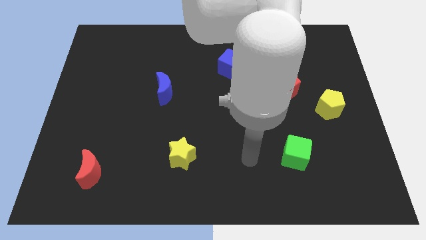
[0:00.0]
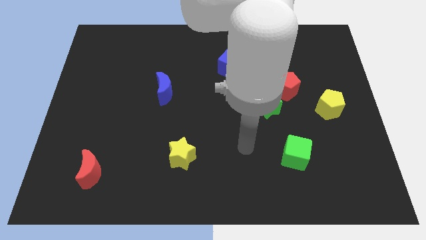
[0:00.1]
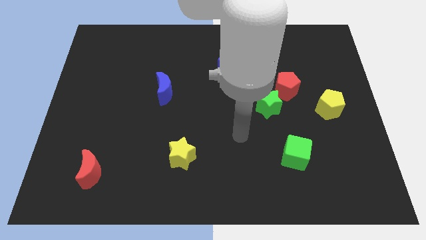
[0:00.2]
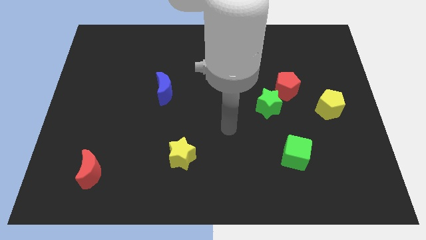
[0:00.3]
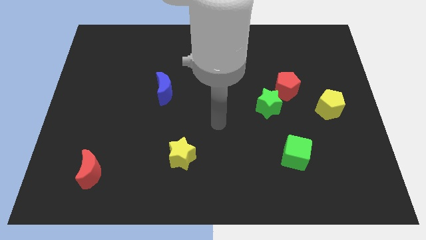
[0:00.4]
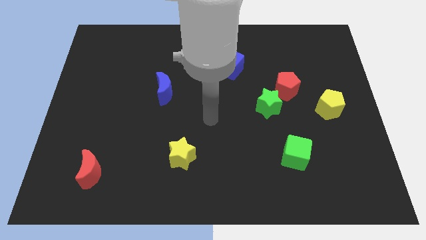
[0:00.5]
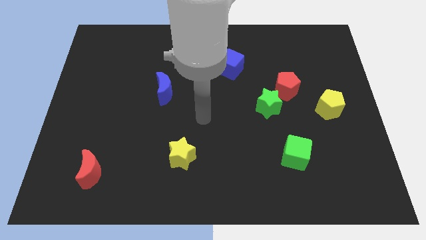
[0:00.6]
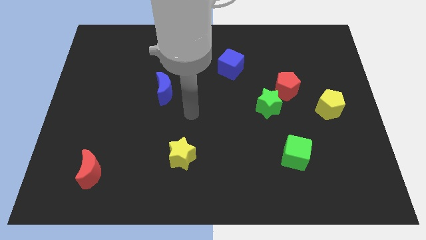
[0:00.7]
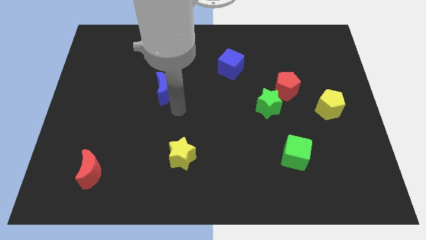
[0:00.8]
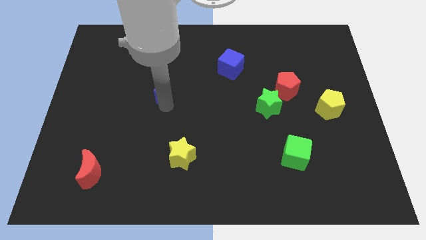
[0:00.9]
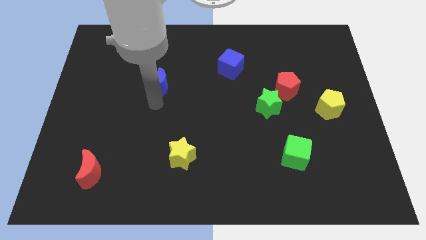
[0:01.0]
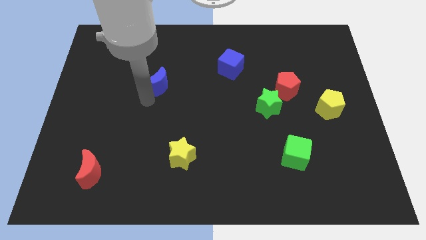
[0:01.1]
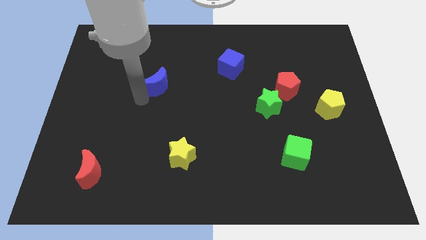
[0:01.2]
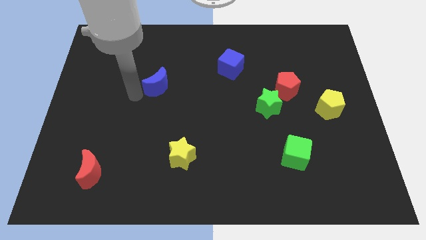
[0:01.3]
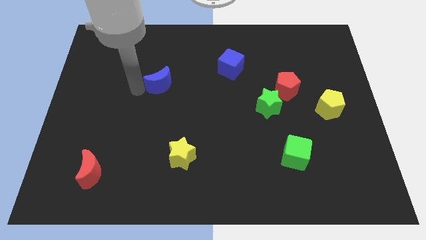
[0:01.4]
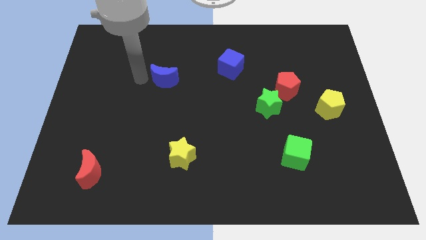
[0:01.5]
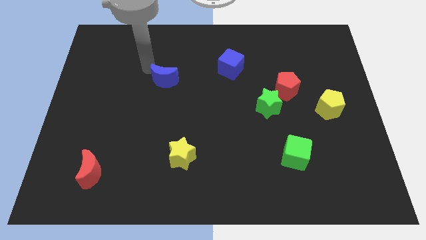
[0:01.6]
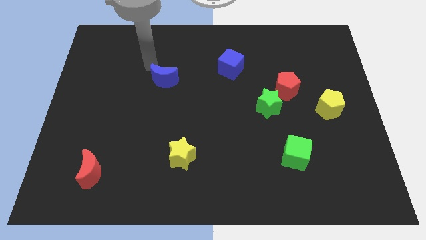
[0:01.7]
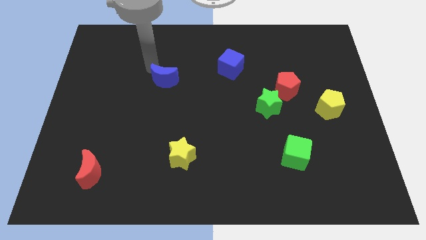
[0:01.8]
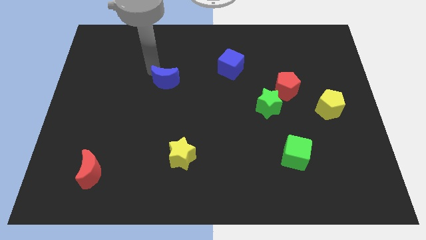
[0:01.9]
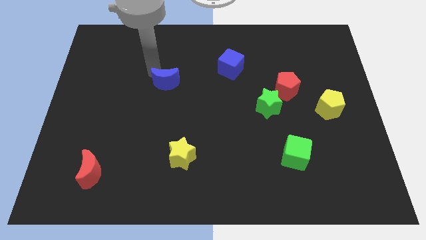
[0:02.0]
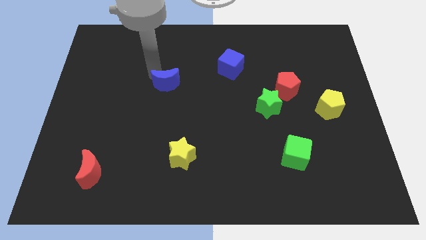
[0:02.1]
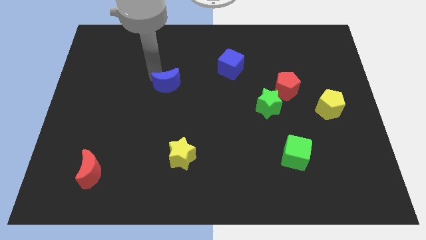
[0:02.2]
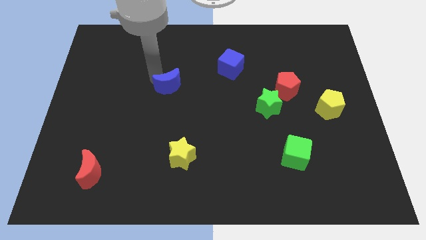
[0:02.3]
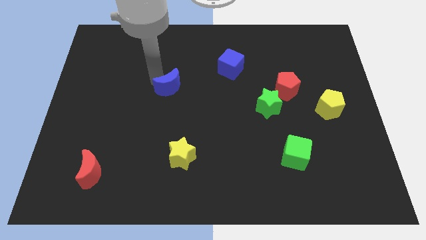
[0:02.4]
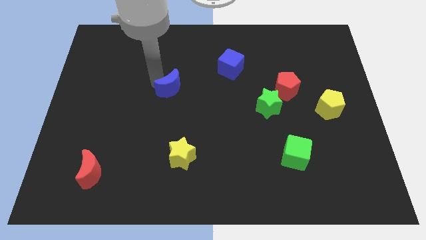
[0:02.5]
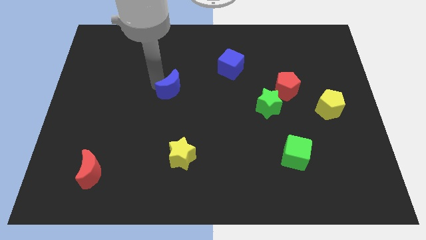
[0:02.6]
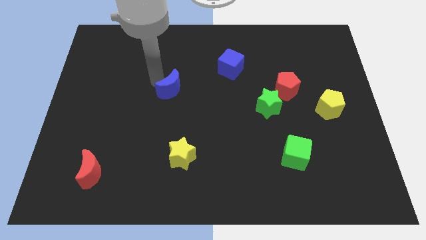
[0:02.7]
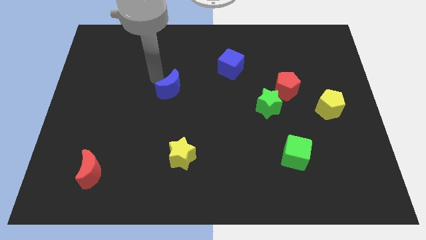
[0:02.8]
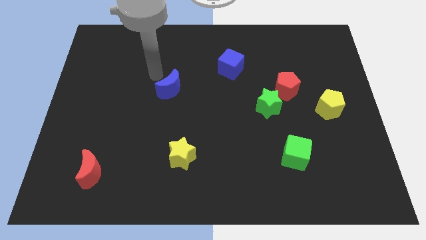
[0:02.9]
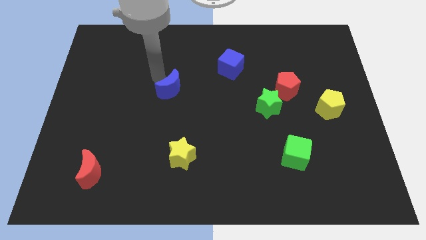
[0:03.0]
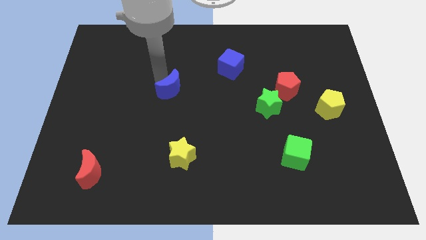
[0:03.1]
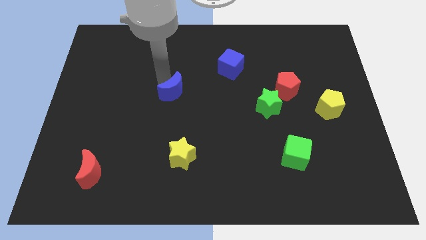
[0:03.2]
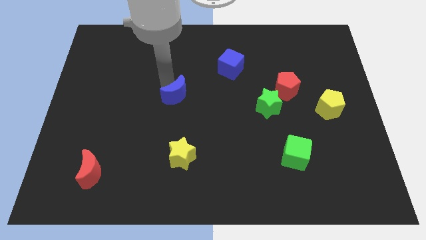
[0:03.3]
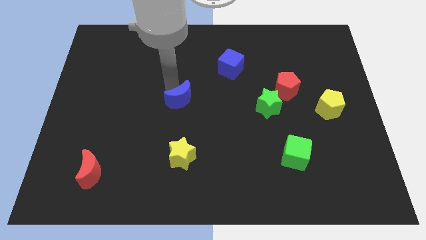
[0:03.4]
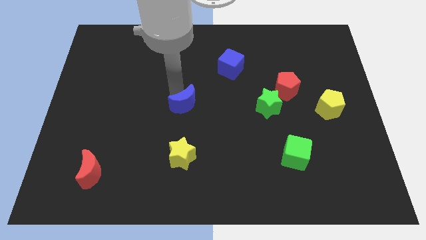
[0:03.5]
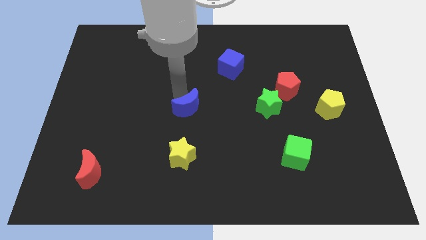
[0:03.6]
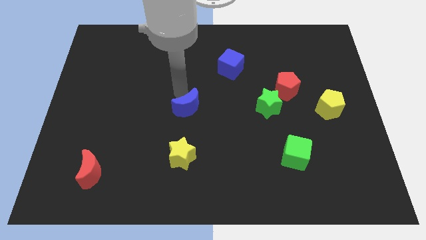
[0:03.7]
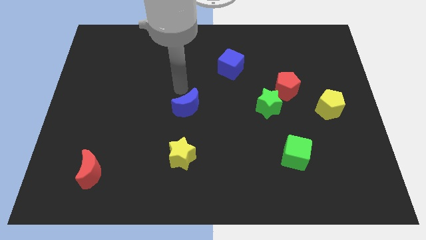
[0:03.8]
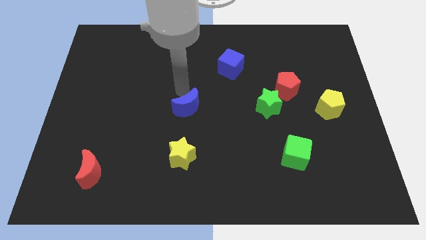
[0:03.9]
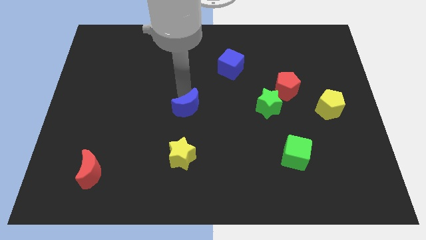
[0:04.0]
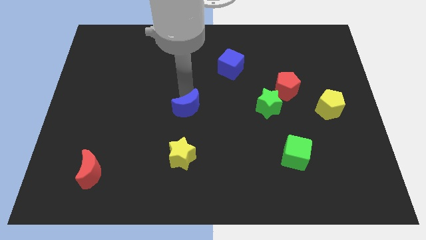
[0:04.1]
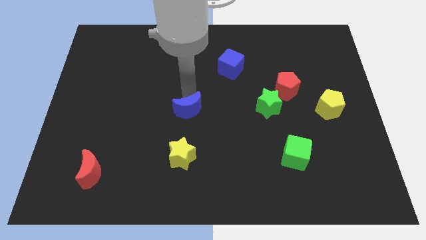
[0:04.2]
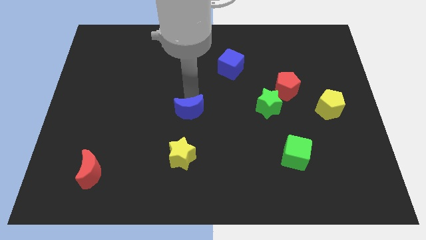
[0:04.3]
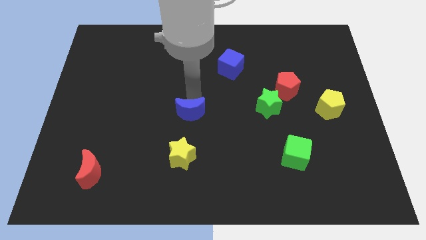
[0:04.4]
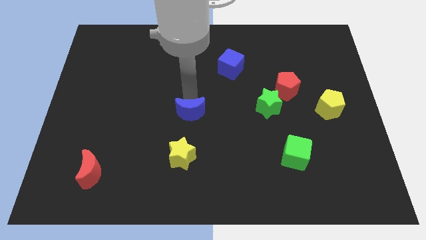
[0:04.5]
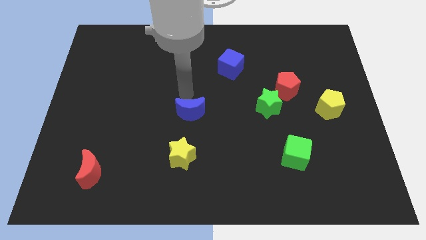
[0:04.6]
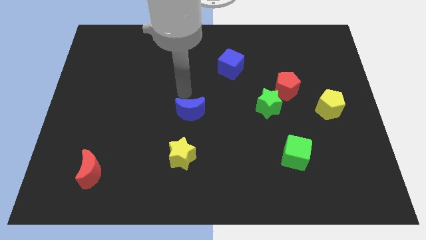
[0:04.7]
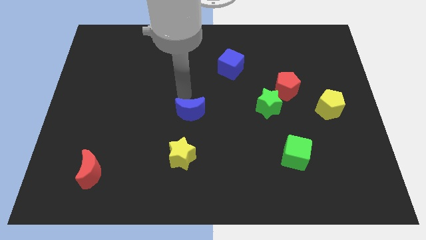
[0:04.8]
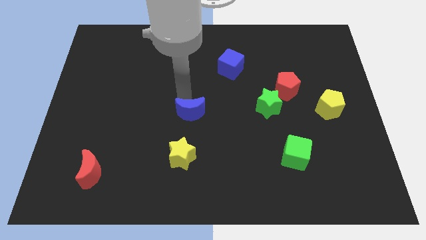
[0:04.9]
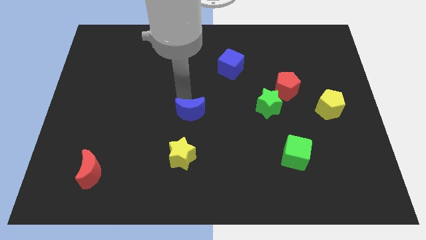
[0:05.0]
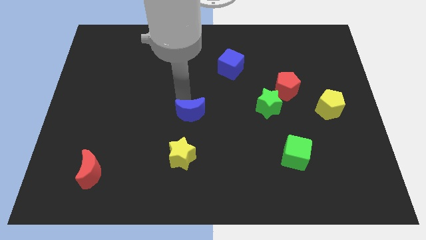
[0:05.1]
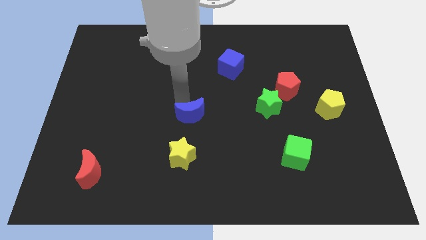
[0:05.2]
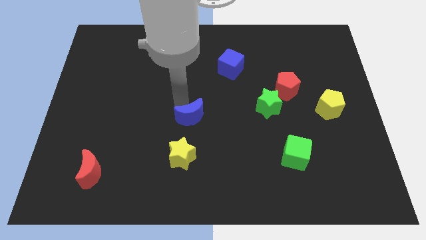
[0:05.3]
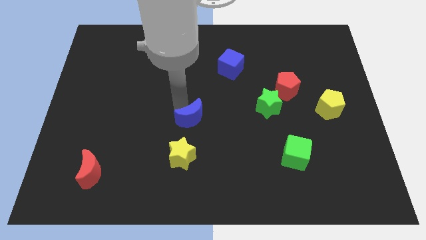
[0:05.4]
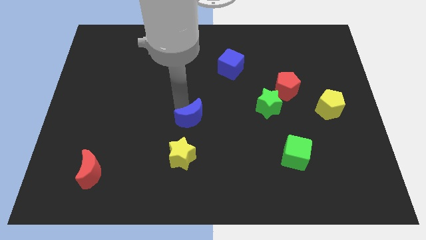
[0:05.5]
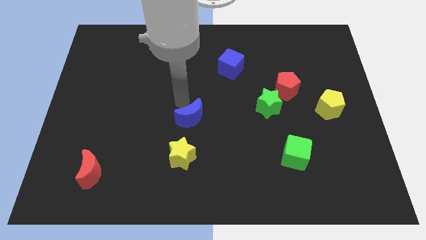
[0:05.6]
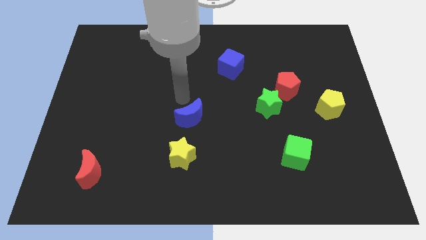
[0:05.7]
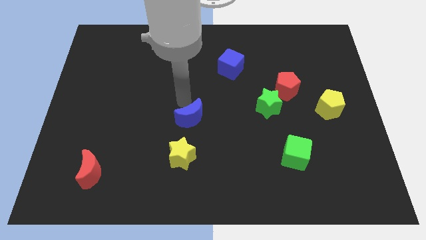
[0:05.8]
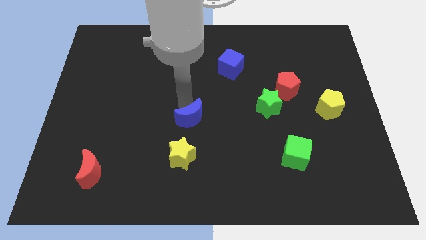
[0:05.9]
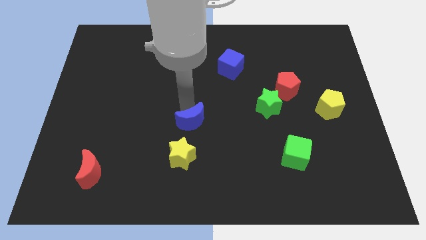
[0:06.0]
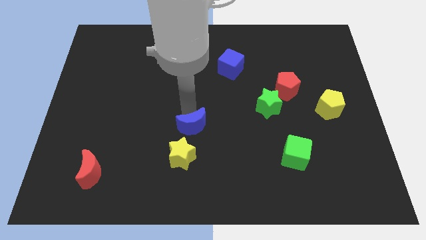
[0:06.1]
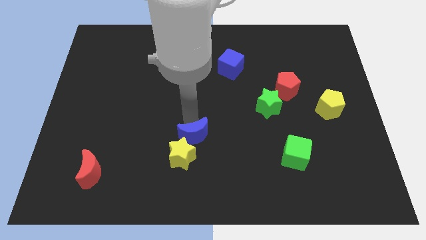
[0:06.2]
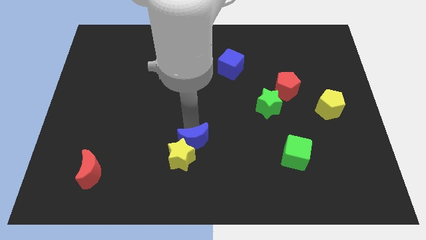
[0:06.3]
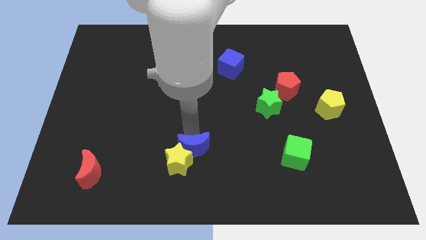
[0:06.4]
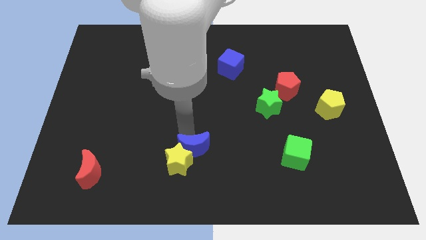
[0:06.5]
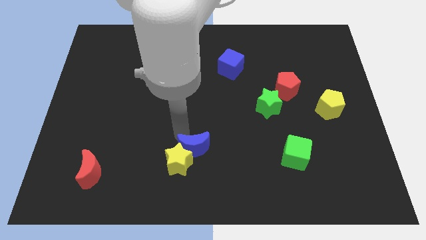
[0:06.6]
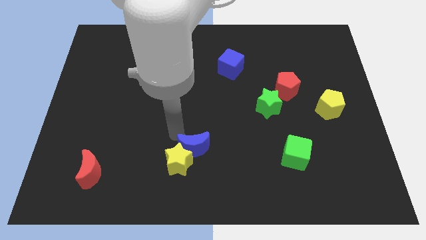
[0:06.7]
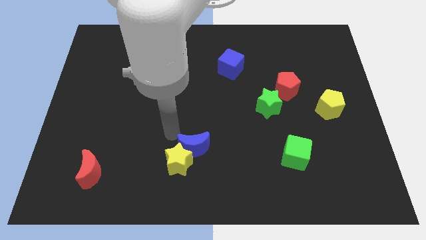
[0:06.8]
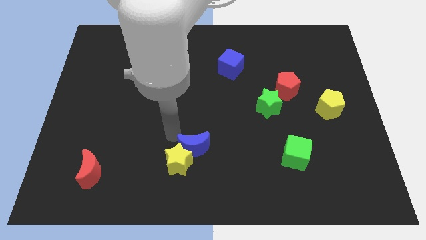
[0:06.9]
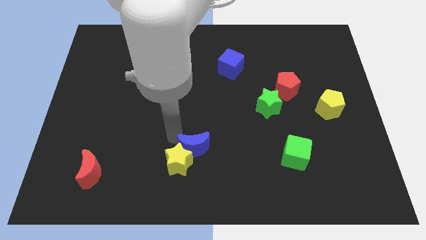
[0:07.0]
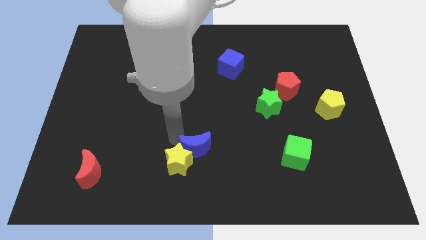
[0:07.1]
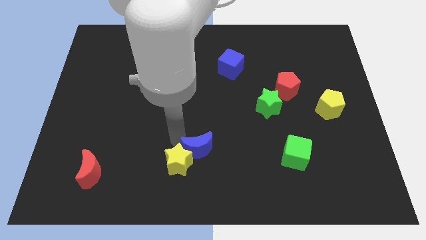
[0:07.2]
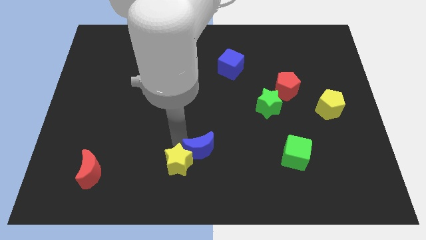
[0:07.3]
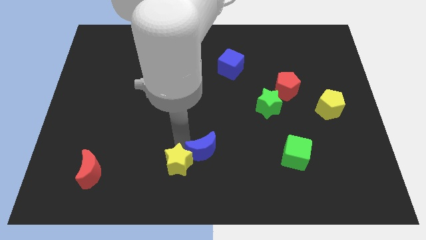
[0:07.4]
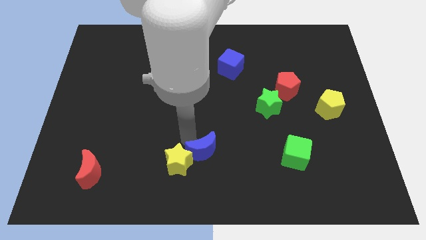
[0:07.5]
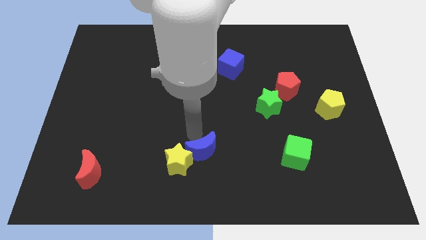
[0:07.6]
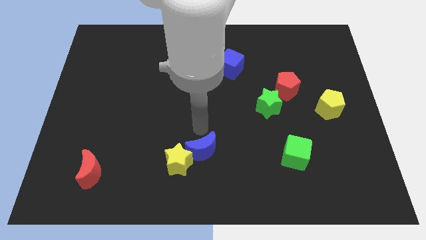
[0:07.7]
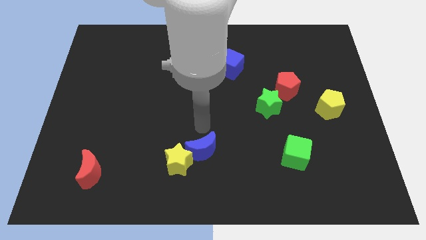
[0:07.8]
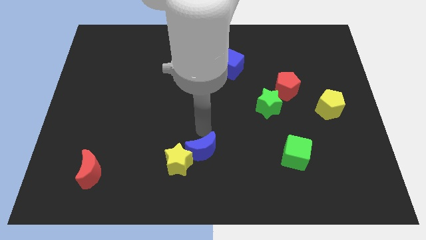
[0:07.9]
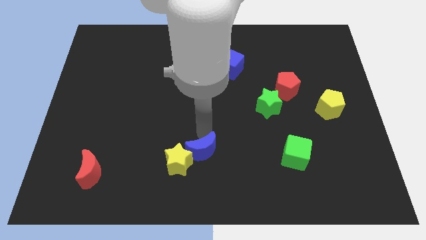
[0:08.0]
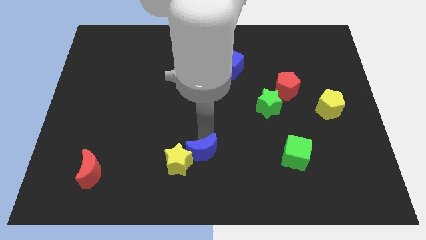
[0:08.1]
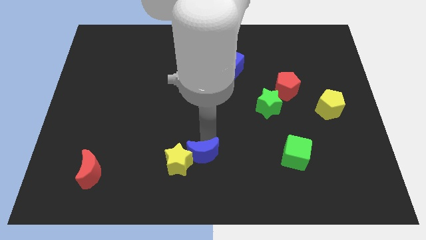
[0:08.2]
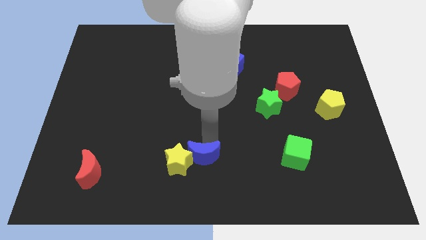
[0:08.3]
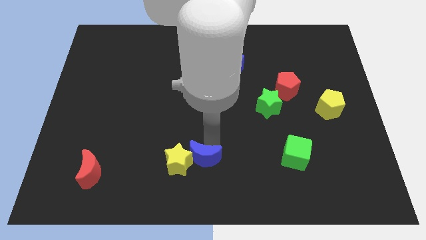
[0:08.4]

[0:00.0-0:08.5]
move the blue moon to the bottom right side of the yellow star
